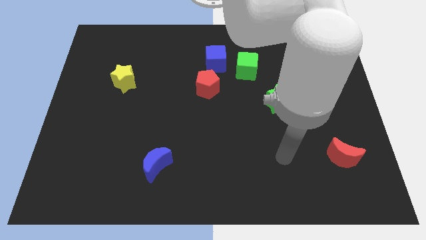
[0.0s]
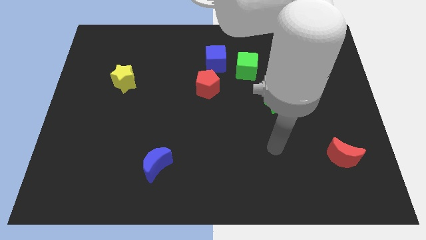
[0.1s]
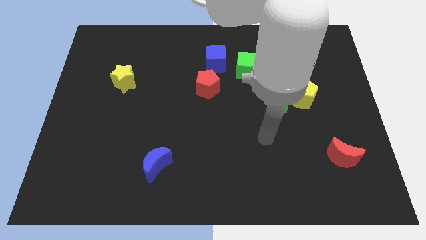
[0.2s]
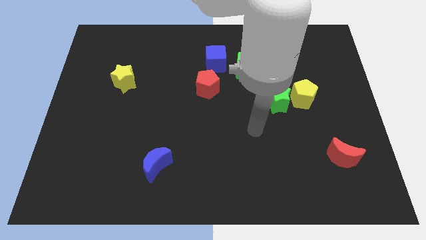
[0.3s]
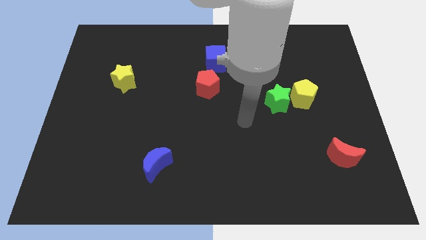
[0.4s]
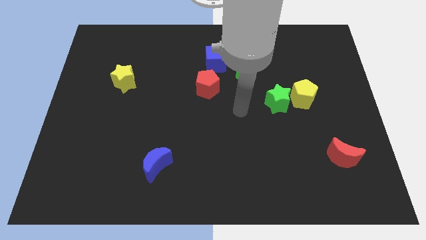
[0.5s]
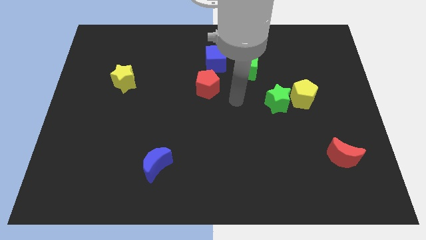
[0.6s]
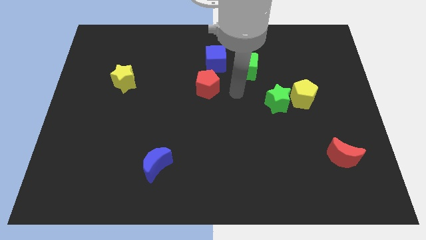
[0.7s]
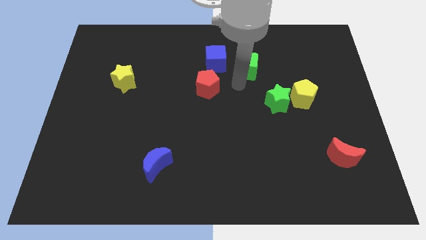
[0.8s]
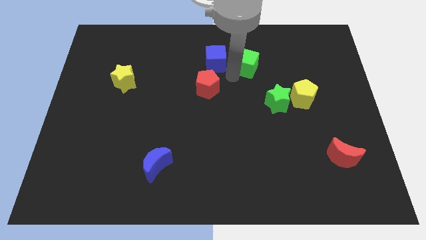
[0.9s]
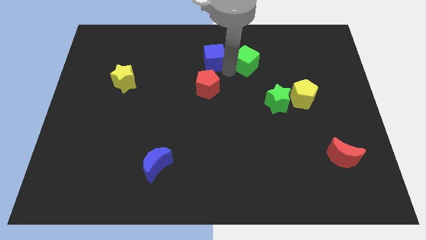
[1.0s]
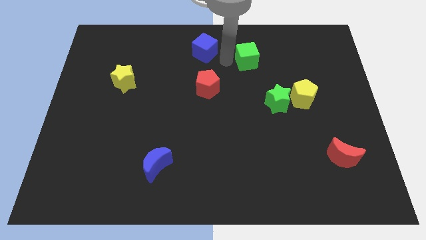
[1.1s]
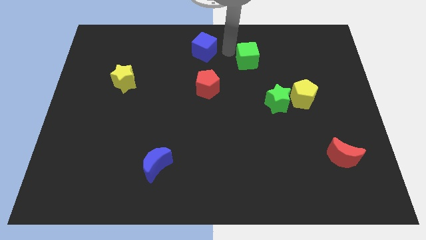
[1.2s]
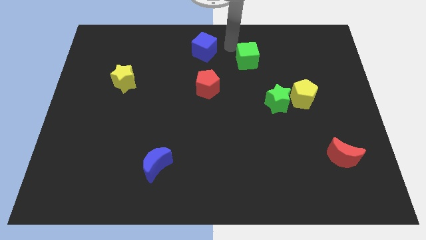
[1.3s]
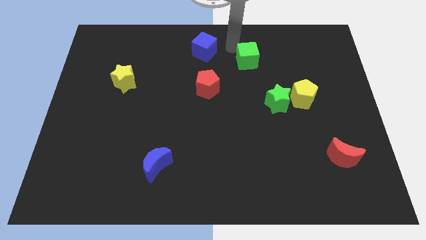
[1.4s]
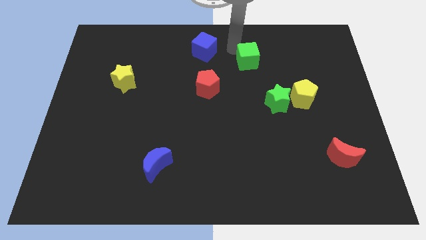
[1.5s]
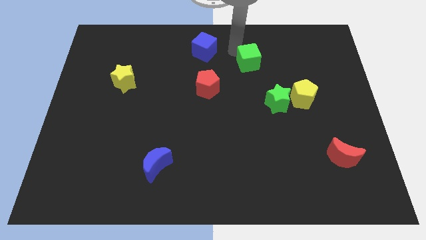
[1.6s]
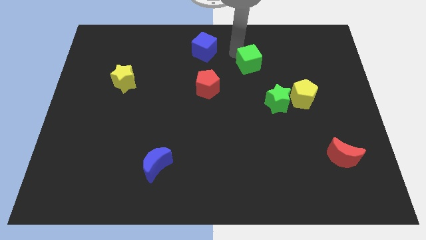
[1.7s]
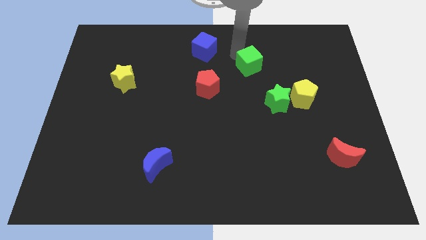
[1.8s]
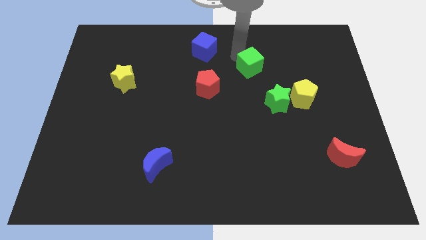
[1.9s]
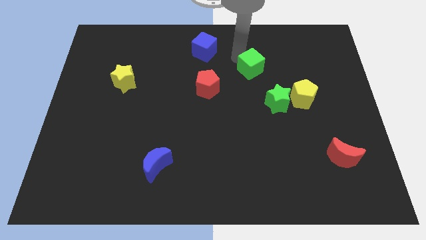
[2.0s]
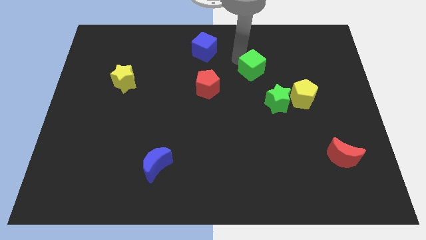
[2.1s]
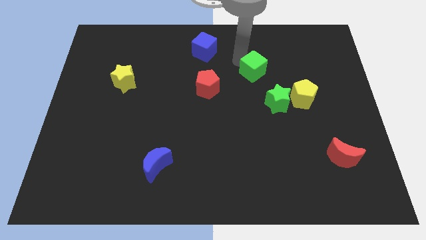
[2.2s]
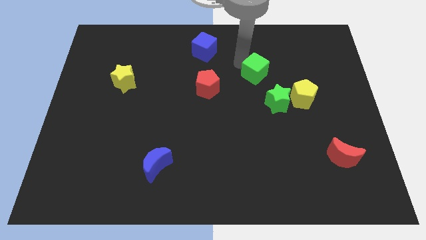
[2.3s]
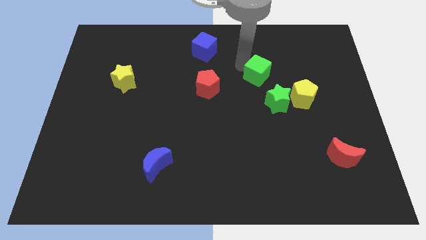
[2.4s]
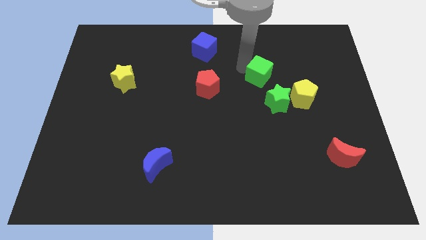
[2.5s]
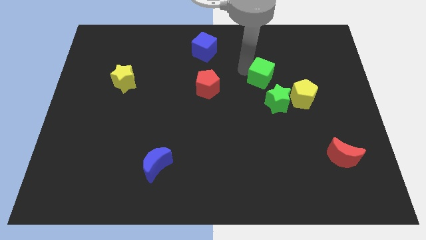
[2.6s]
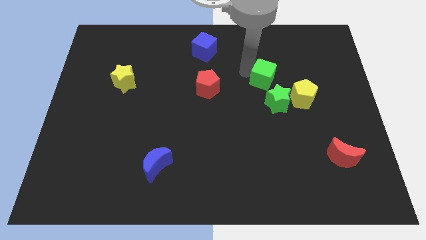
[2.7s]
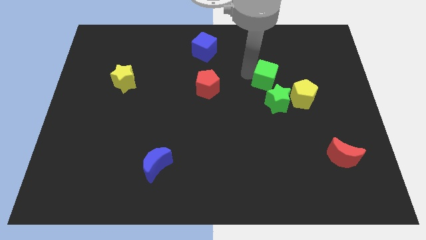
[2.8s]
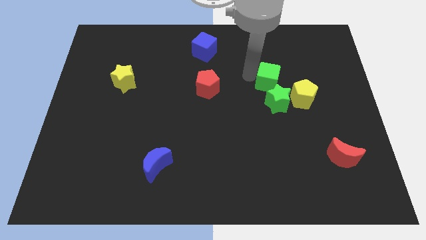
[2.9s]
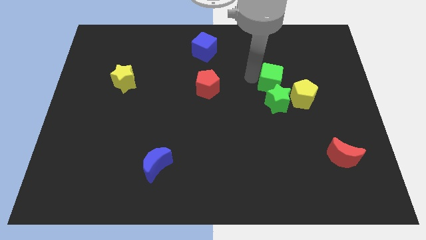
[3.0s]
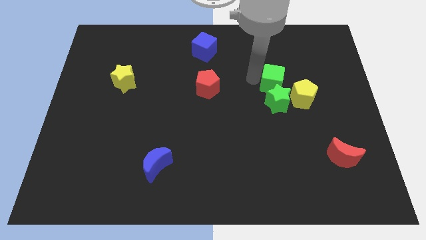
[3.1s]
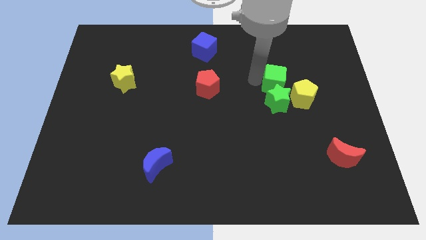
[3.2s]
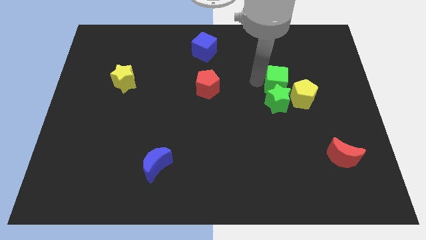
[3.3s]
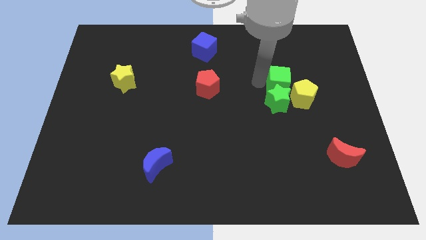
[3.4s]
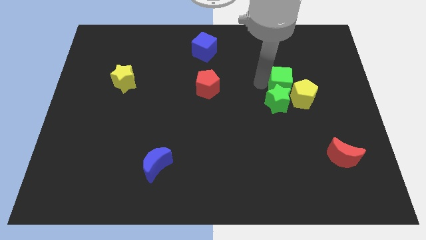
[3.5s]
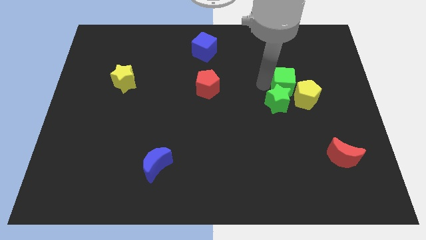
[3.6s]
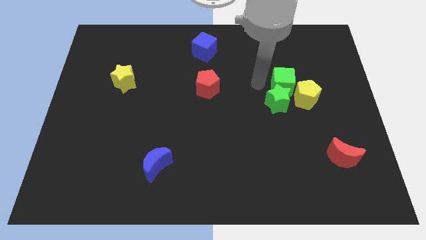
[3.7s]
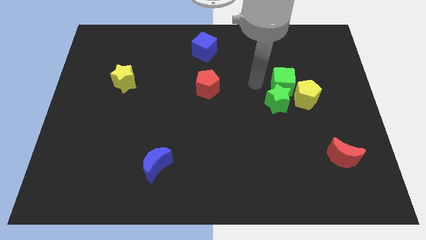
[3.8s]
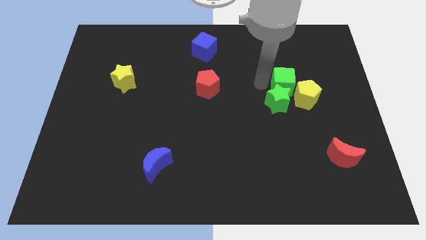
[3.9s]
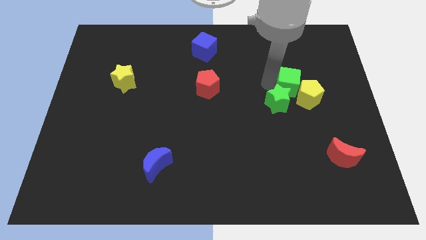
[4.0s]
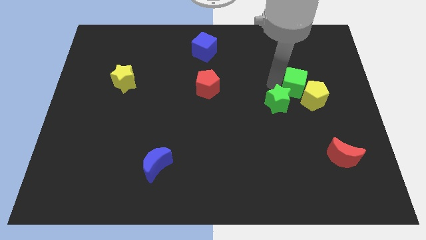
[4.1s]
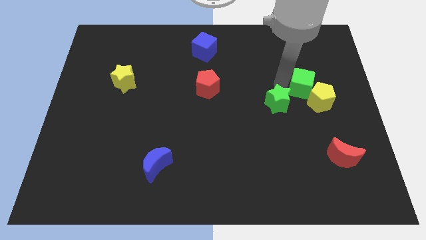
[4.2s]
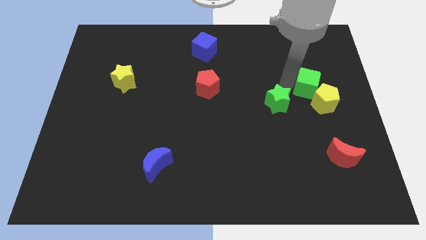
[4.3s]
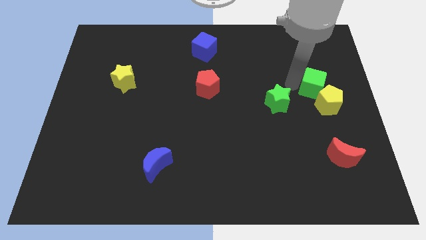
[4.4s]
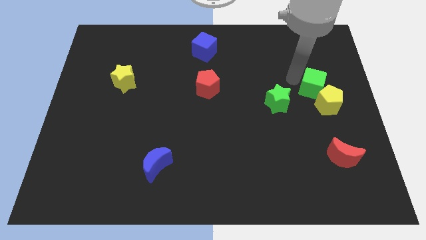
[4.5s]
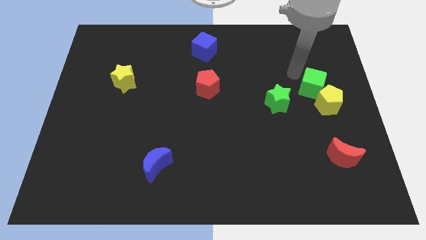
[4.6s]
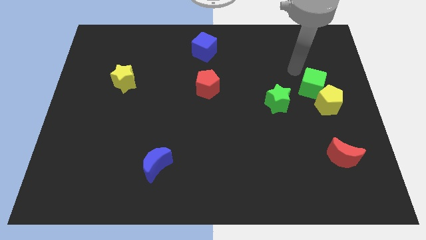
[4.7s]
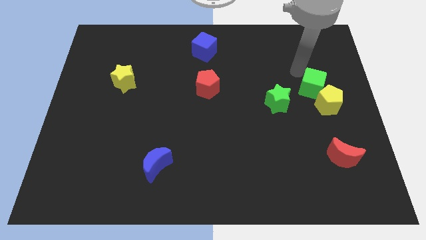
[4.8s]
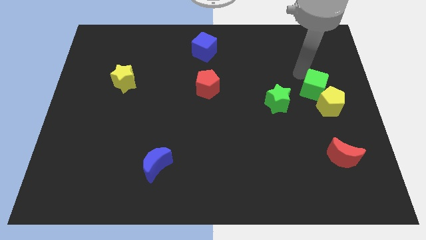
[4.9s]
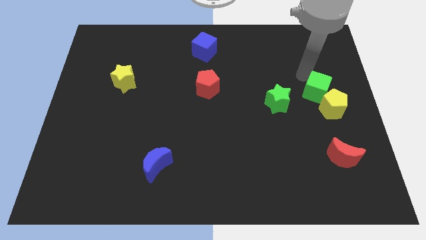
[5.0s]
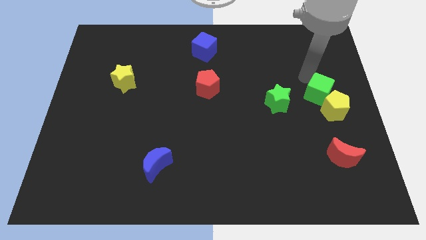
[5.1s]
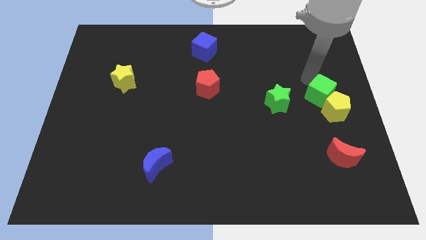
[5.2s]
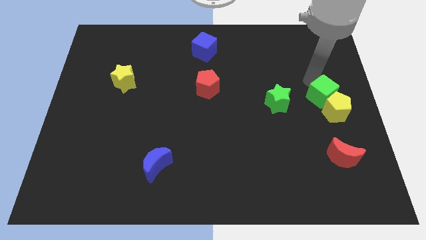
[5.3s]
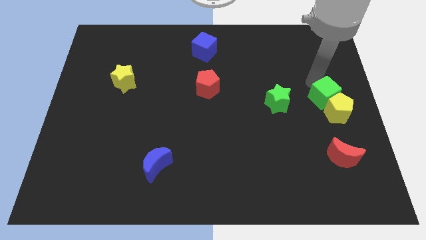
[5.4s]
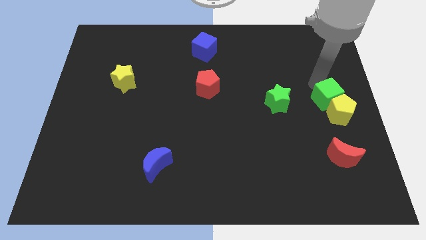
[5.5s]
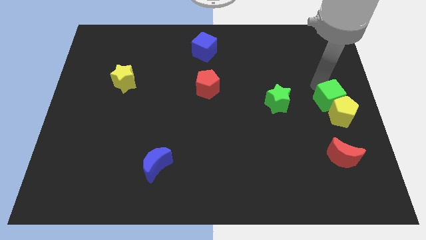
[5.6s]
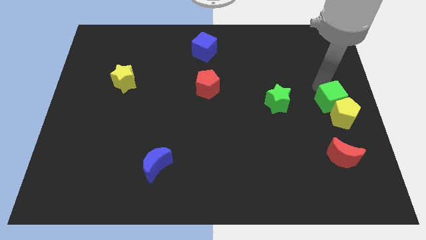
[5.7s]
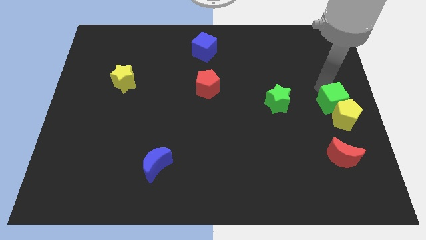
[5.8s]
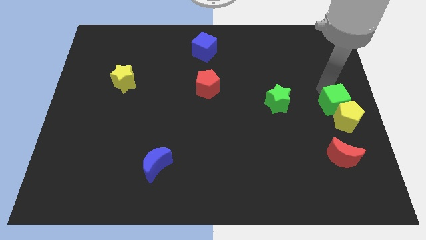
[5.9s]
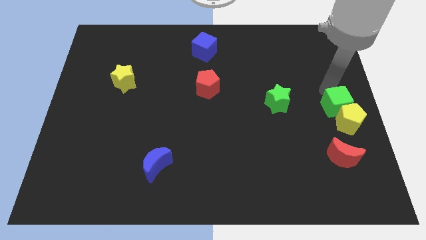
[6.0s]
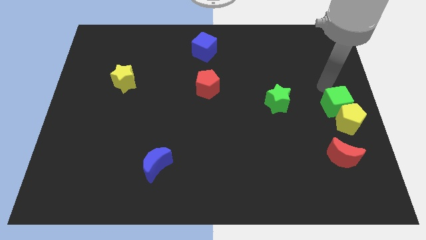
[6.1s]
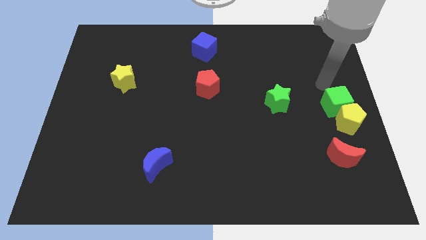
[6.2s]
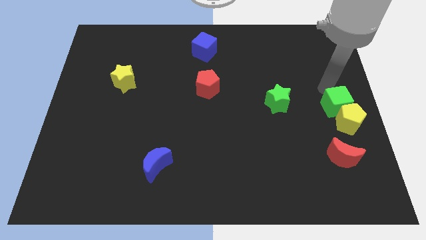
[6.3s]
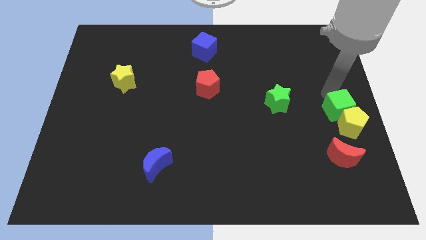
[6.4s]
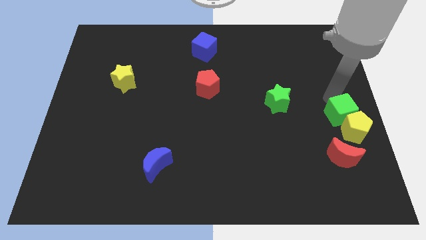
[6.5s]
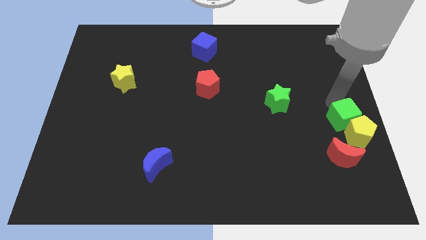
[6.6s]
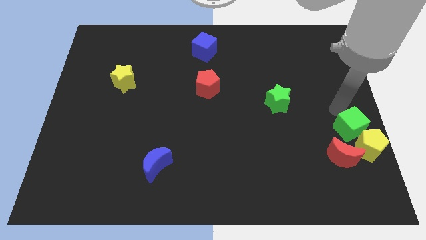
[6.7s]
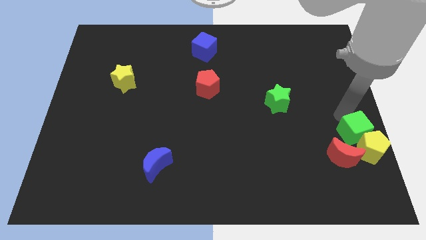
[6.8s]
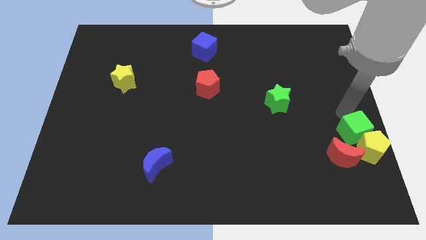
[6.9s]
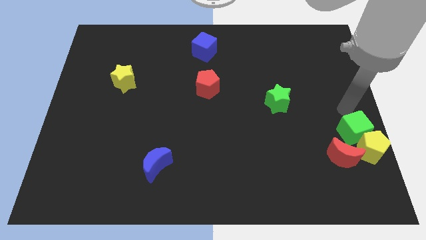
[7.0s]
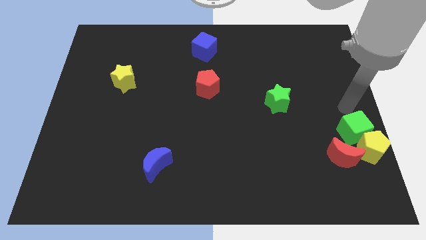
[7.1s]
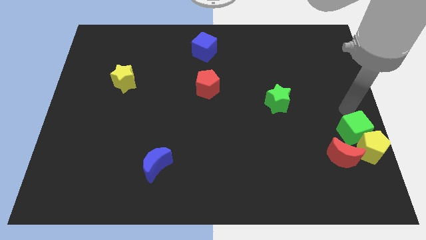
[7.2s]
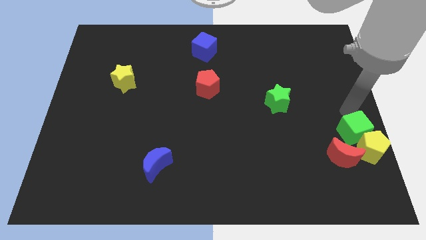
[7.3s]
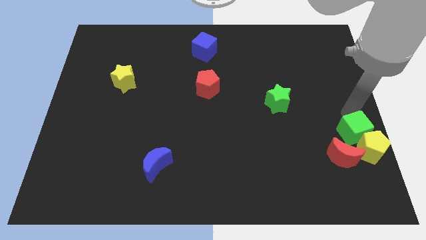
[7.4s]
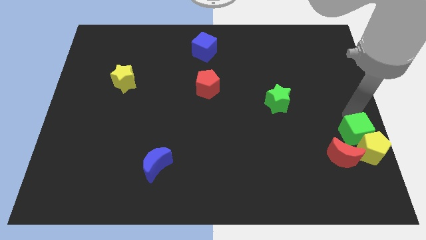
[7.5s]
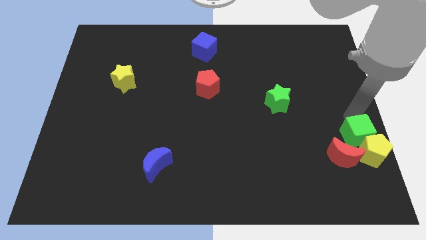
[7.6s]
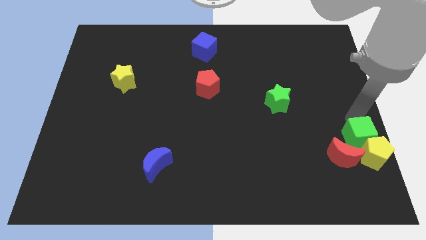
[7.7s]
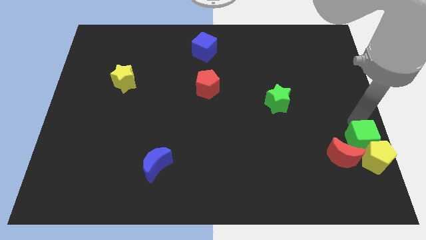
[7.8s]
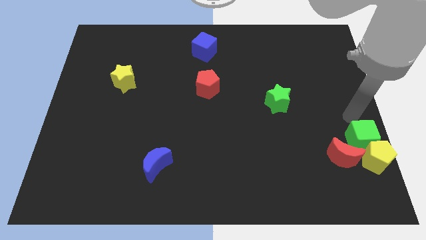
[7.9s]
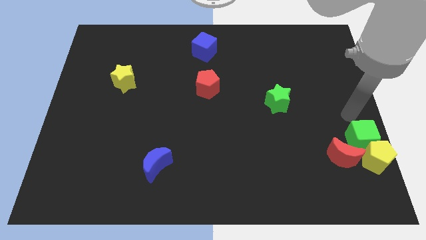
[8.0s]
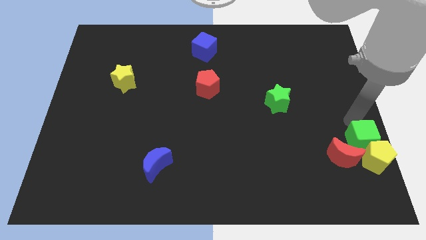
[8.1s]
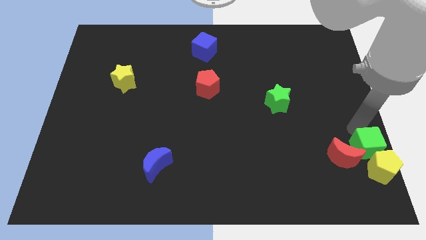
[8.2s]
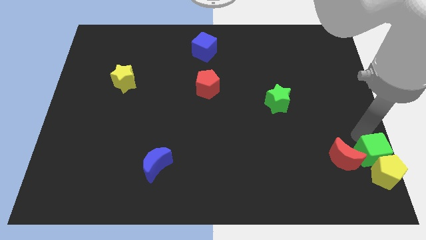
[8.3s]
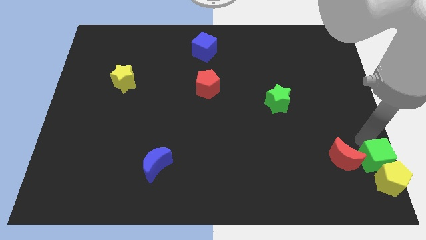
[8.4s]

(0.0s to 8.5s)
move the green cube to the lower right corner
